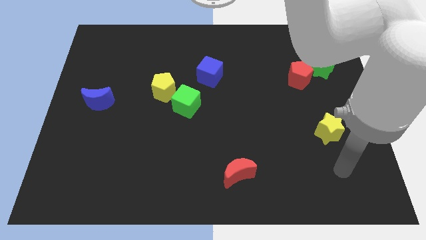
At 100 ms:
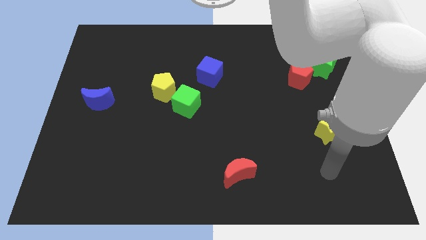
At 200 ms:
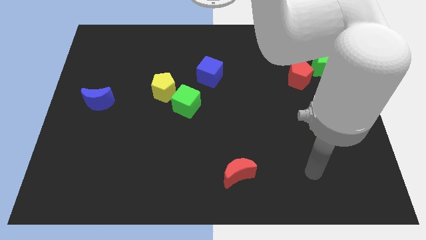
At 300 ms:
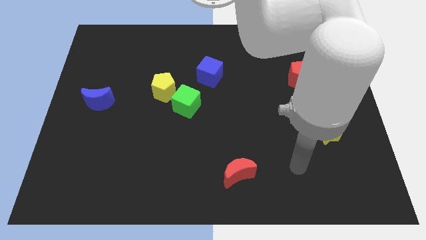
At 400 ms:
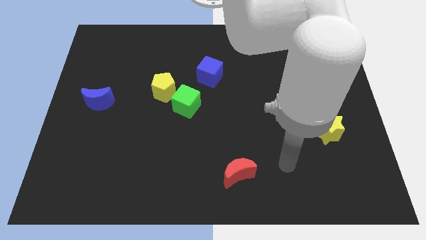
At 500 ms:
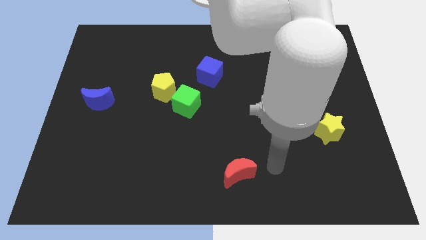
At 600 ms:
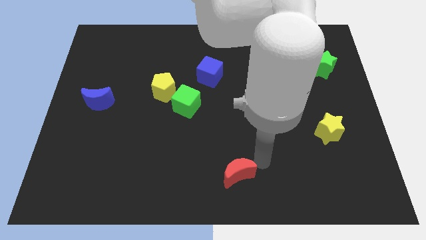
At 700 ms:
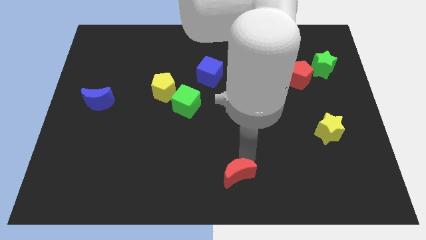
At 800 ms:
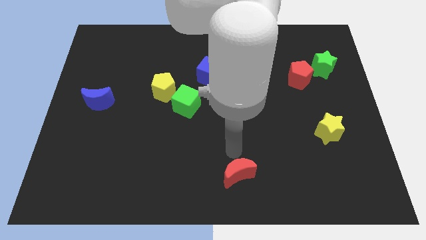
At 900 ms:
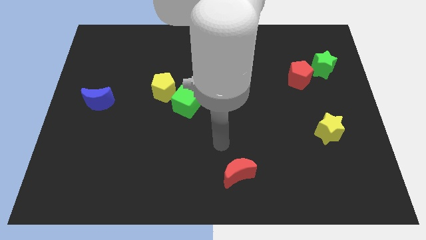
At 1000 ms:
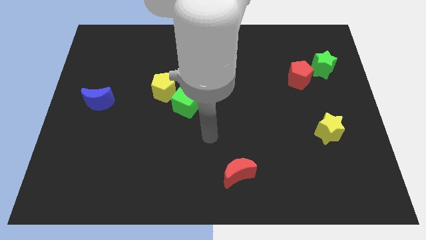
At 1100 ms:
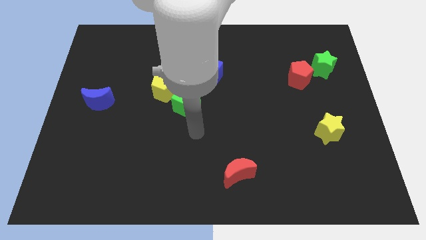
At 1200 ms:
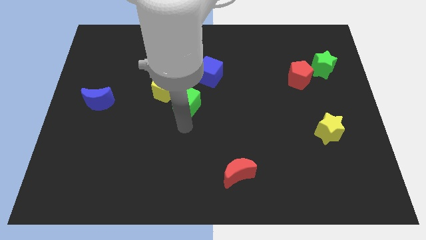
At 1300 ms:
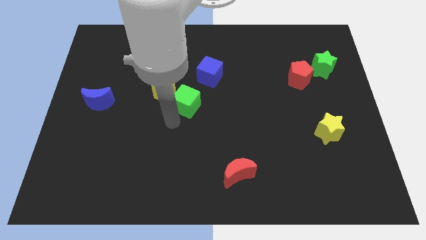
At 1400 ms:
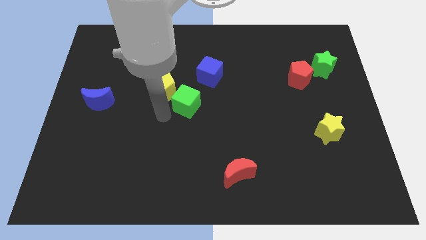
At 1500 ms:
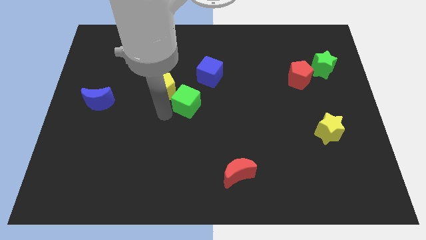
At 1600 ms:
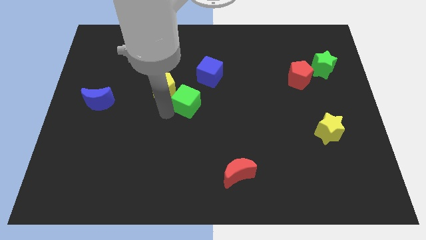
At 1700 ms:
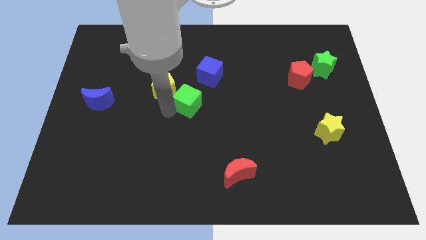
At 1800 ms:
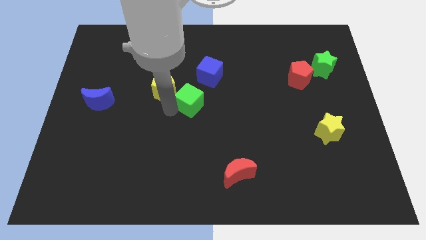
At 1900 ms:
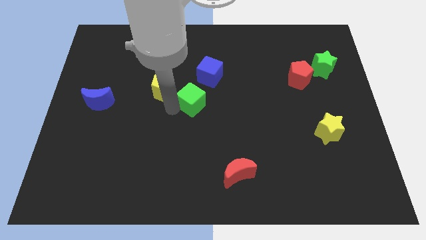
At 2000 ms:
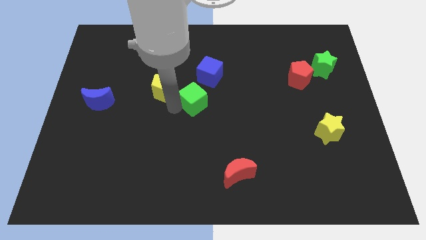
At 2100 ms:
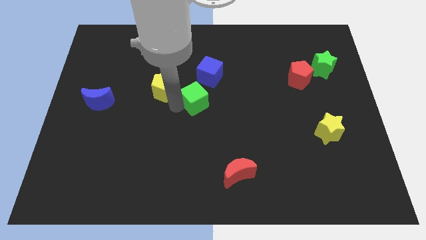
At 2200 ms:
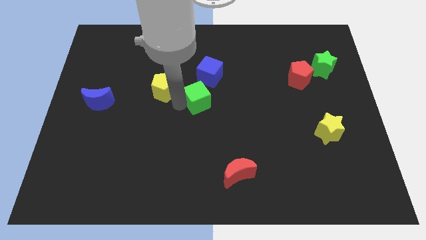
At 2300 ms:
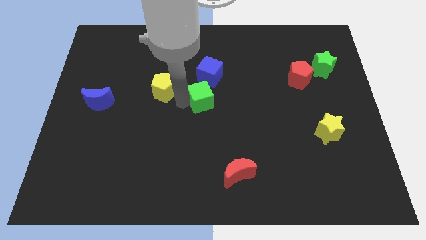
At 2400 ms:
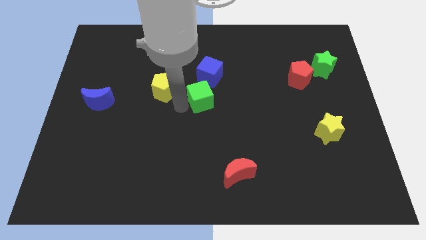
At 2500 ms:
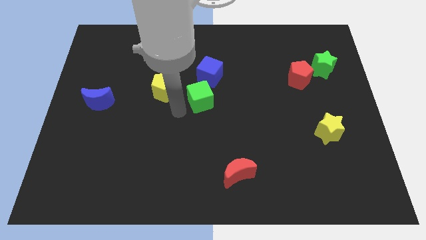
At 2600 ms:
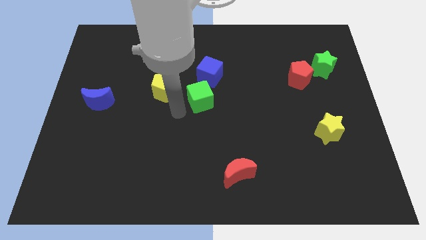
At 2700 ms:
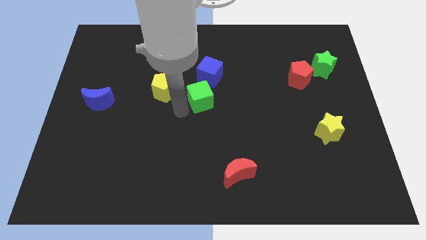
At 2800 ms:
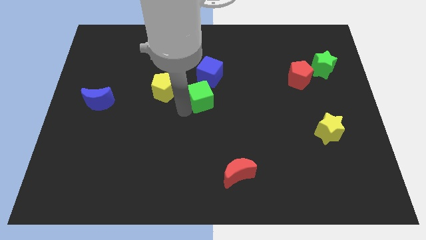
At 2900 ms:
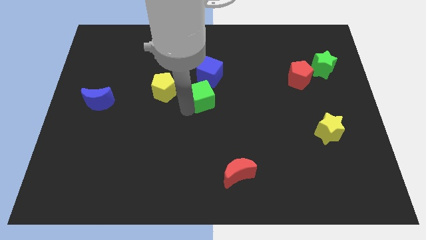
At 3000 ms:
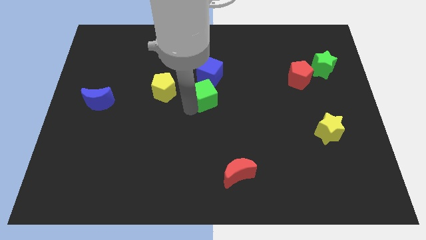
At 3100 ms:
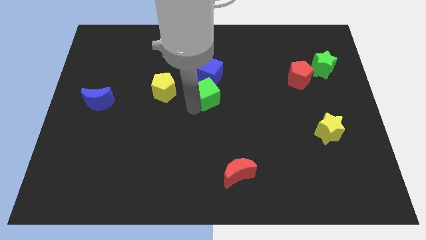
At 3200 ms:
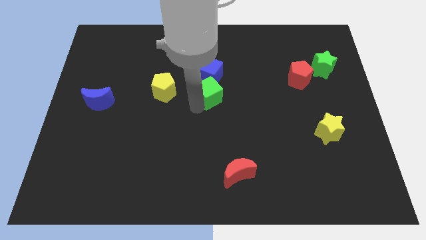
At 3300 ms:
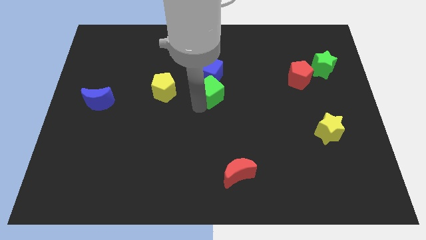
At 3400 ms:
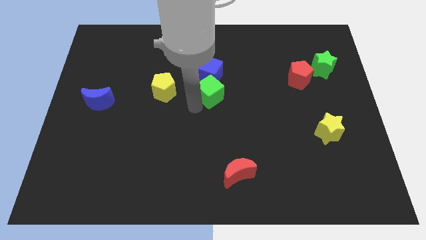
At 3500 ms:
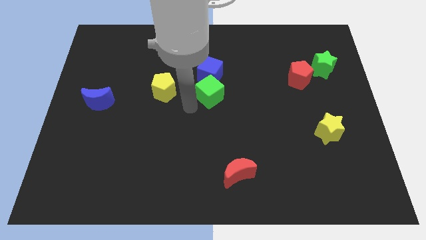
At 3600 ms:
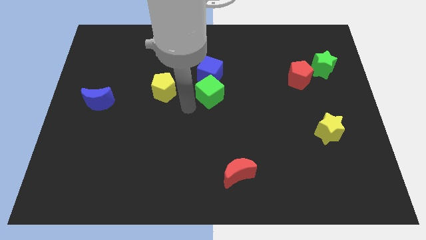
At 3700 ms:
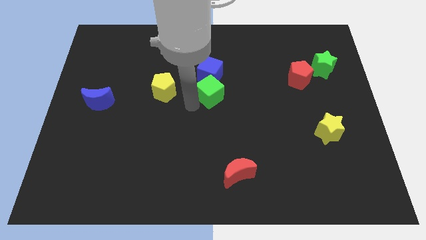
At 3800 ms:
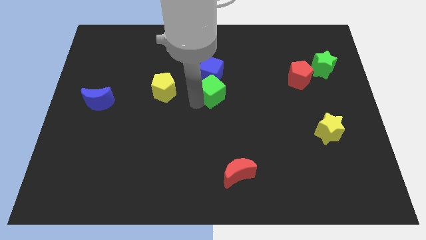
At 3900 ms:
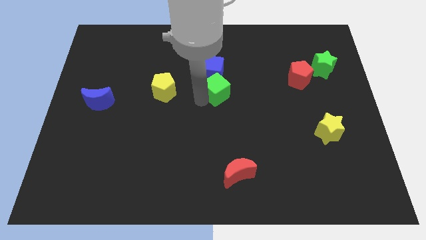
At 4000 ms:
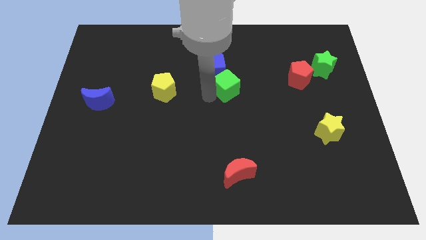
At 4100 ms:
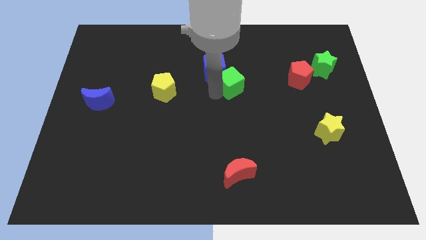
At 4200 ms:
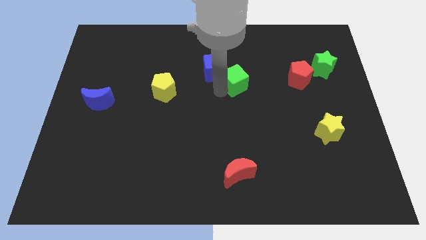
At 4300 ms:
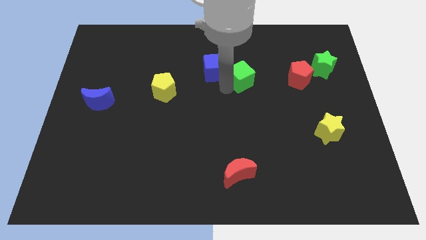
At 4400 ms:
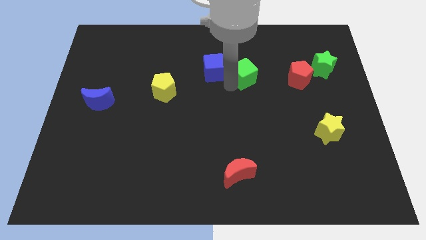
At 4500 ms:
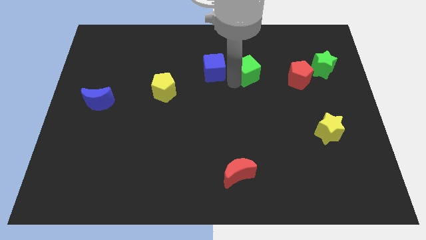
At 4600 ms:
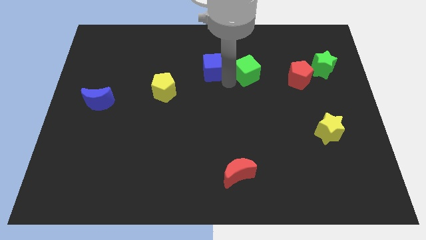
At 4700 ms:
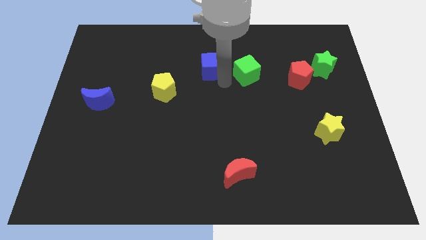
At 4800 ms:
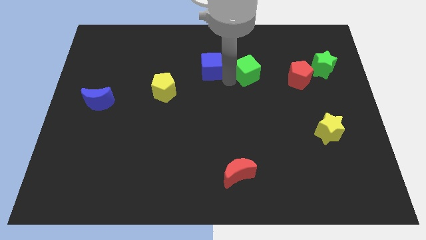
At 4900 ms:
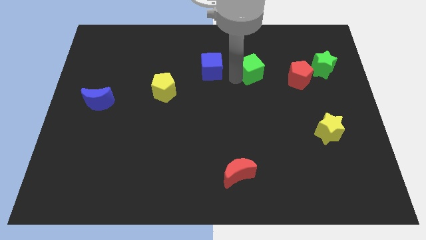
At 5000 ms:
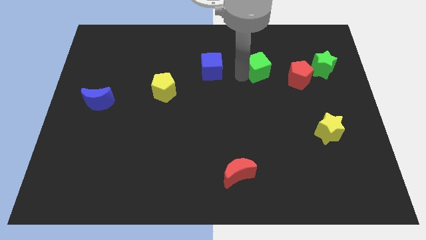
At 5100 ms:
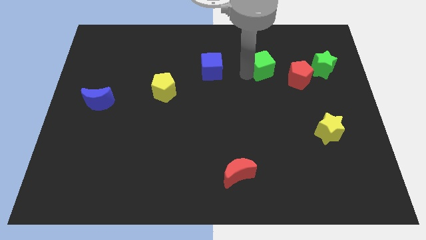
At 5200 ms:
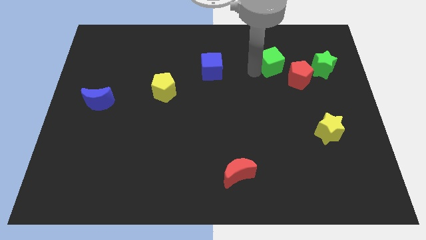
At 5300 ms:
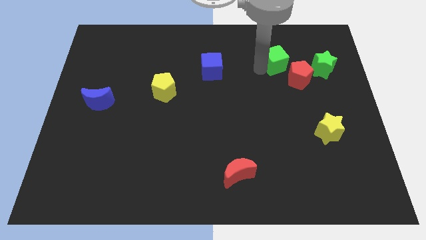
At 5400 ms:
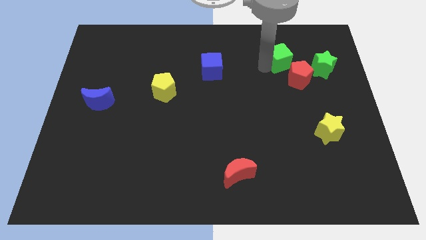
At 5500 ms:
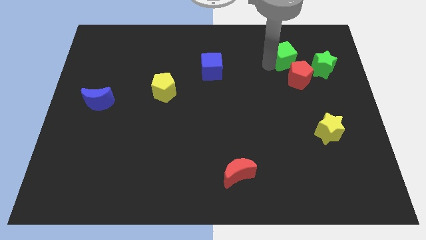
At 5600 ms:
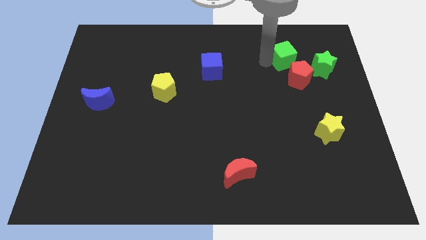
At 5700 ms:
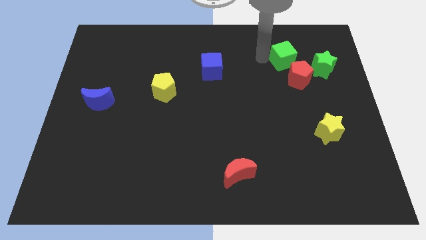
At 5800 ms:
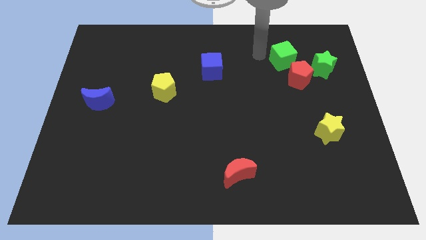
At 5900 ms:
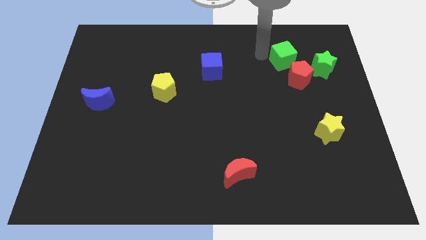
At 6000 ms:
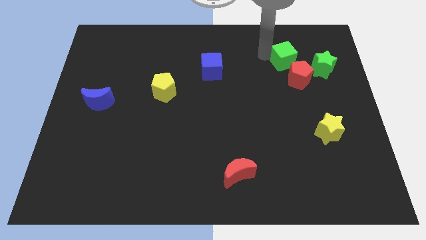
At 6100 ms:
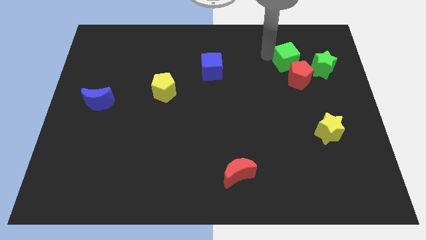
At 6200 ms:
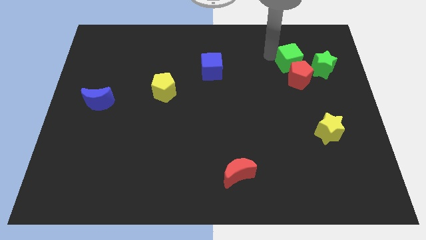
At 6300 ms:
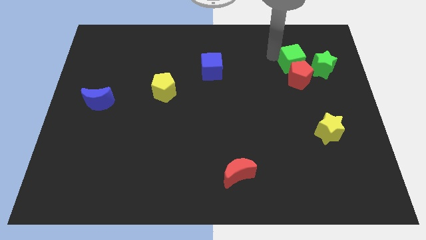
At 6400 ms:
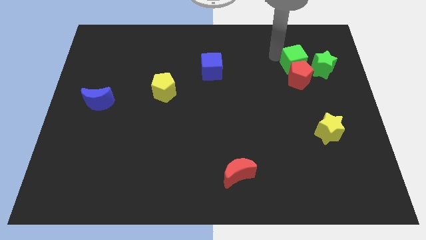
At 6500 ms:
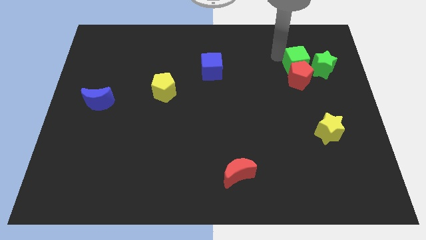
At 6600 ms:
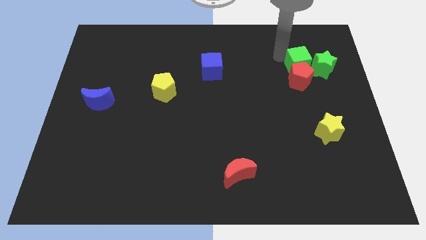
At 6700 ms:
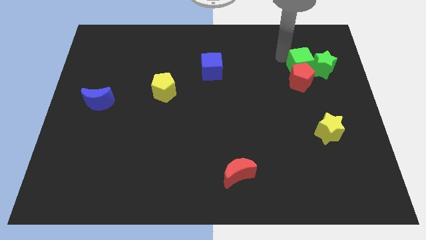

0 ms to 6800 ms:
put the green cube next to the green star
